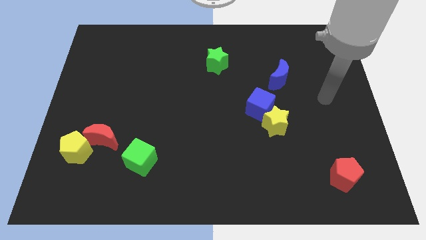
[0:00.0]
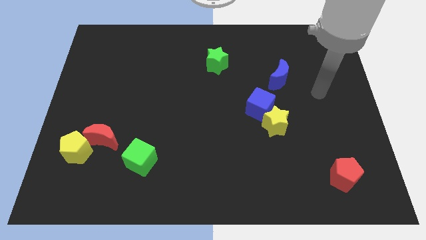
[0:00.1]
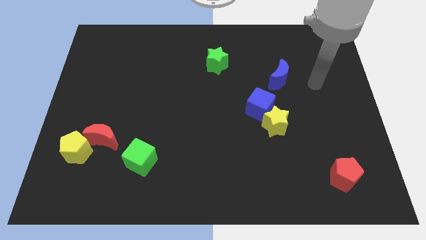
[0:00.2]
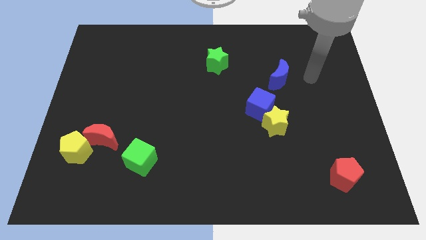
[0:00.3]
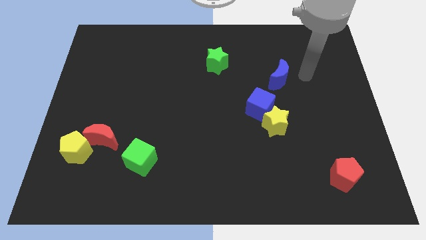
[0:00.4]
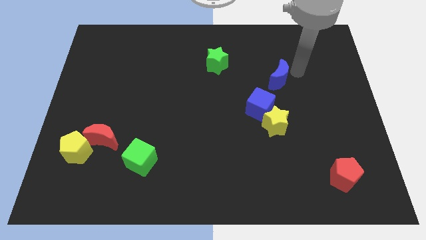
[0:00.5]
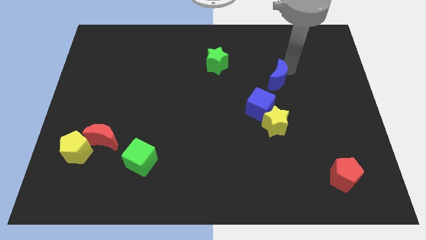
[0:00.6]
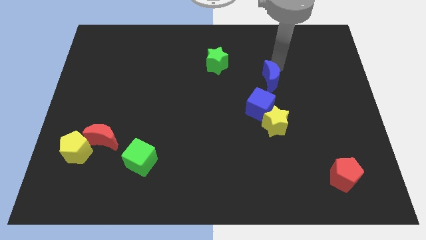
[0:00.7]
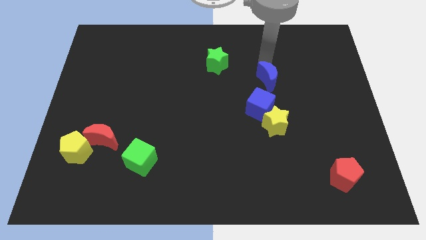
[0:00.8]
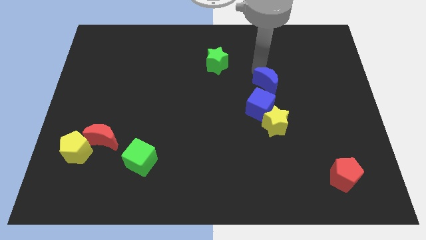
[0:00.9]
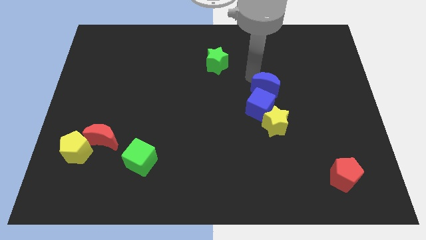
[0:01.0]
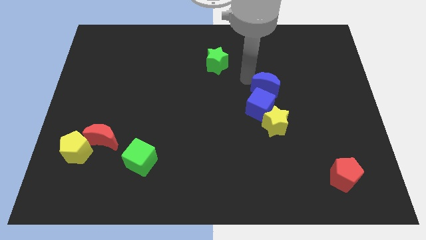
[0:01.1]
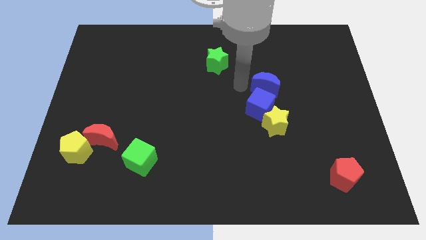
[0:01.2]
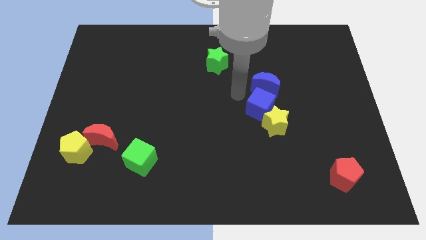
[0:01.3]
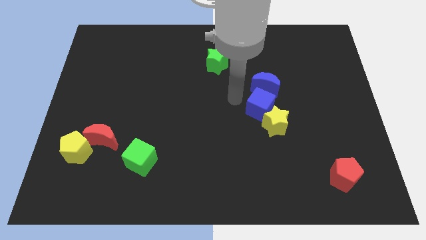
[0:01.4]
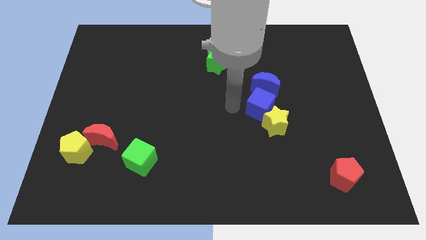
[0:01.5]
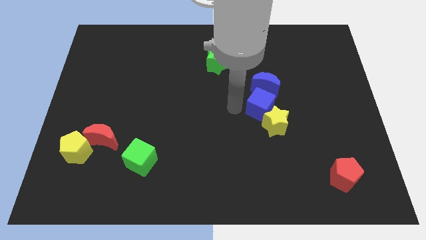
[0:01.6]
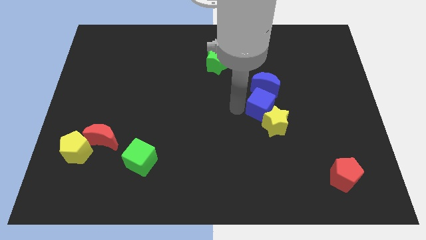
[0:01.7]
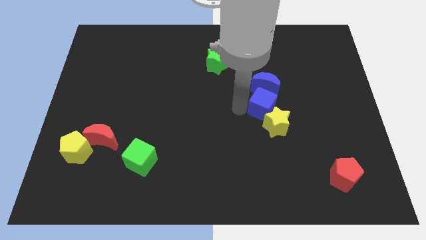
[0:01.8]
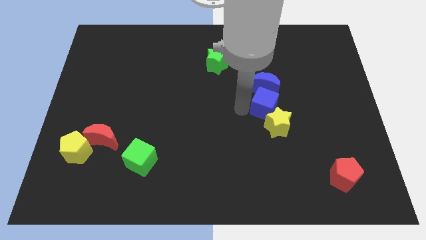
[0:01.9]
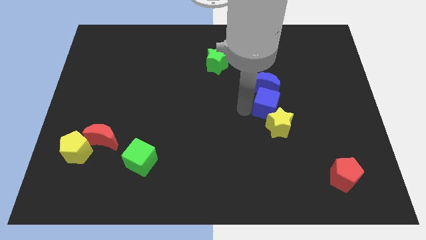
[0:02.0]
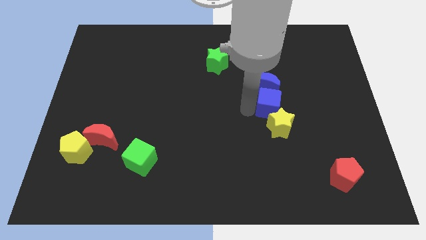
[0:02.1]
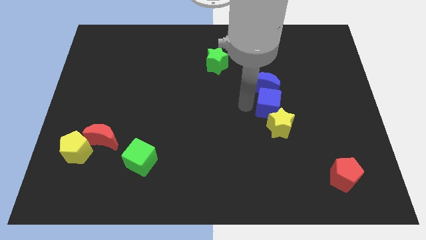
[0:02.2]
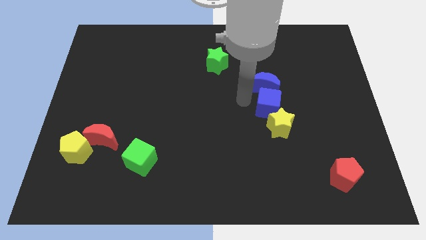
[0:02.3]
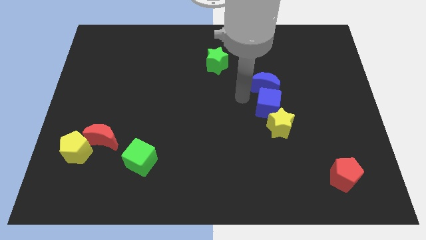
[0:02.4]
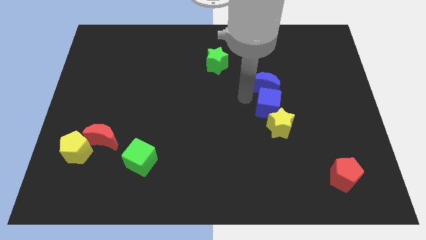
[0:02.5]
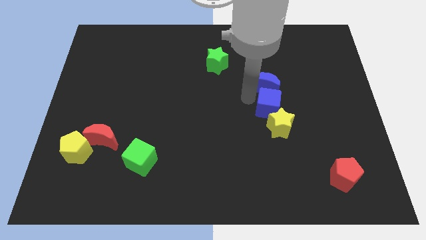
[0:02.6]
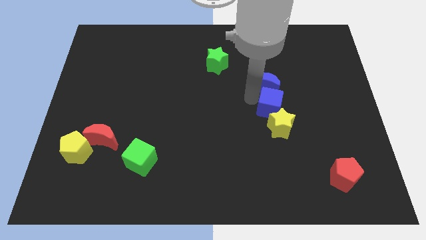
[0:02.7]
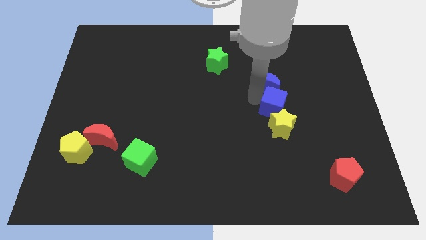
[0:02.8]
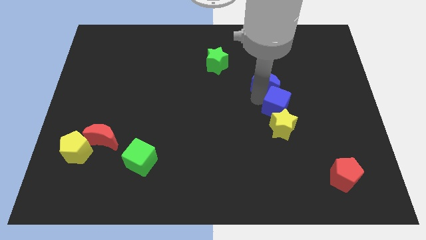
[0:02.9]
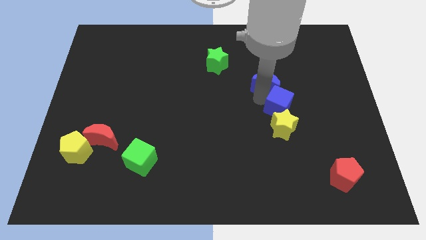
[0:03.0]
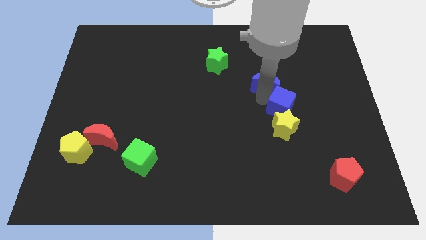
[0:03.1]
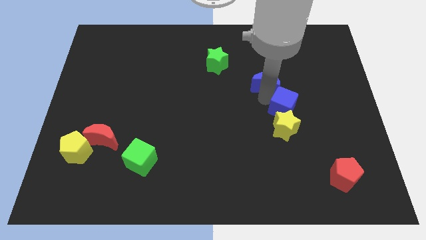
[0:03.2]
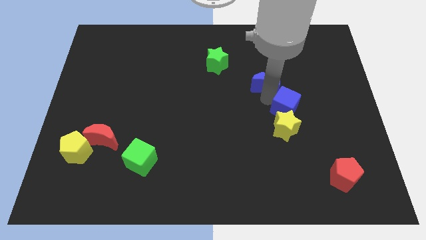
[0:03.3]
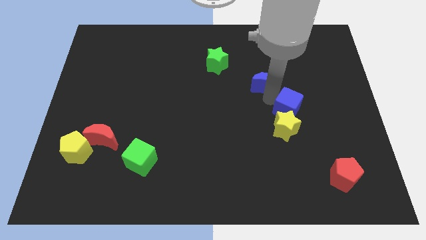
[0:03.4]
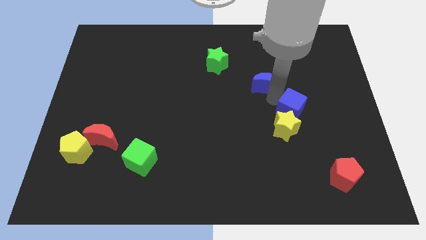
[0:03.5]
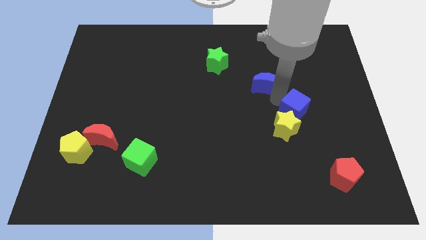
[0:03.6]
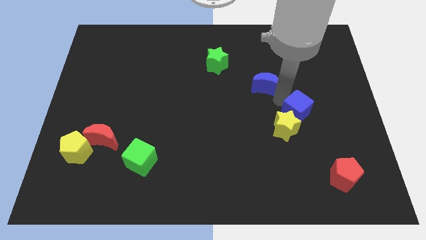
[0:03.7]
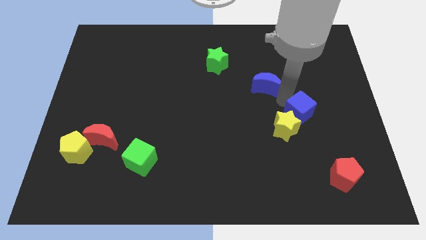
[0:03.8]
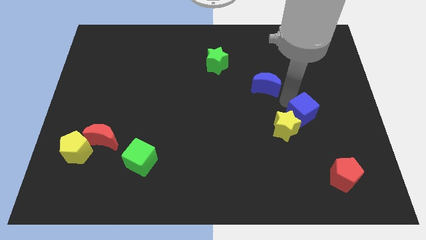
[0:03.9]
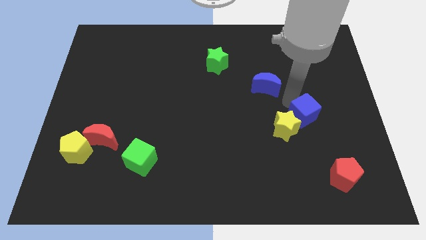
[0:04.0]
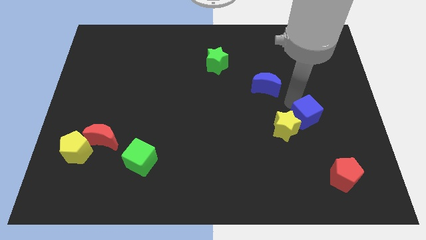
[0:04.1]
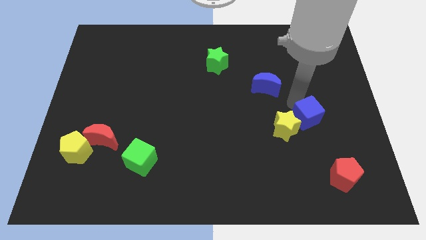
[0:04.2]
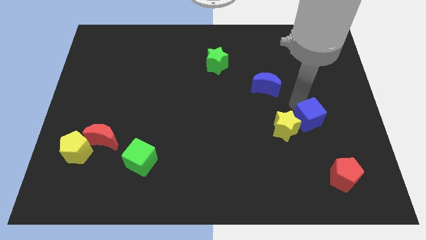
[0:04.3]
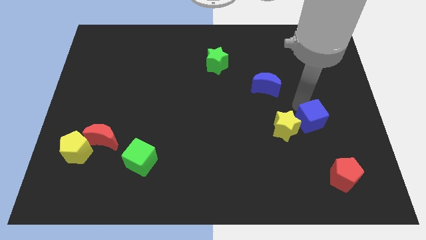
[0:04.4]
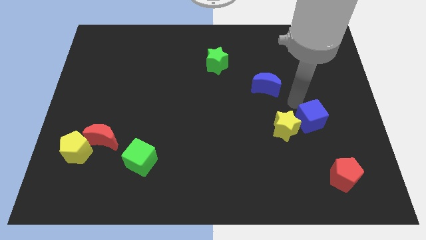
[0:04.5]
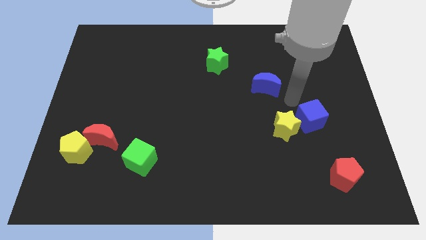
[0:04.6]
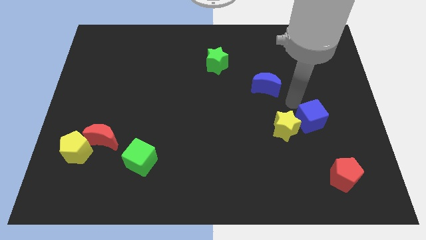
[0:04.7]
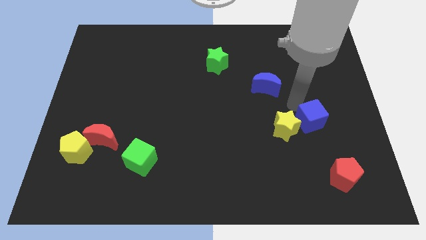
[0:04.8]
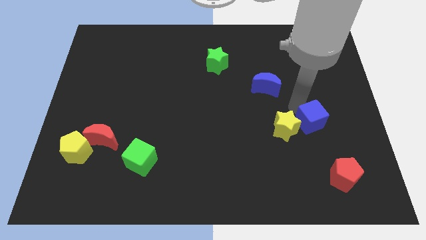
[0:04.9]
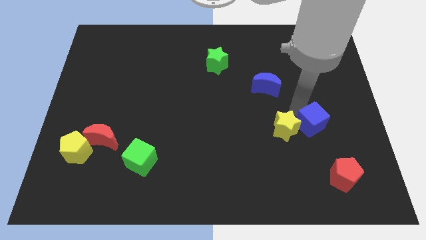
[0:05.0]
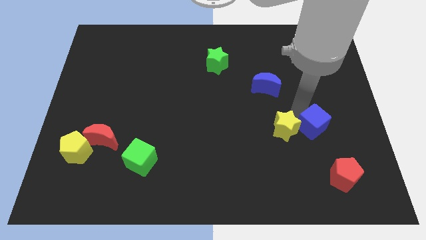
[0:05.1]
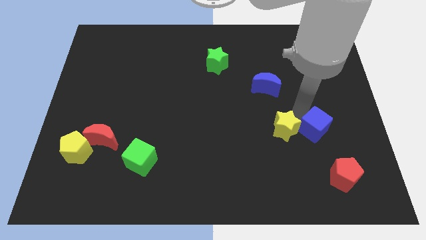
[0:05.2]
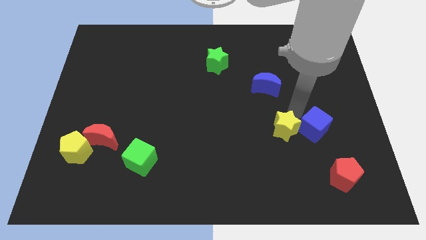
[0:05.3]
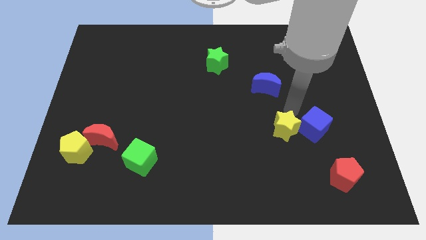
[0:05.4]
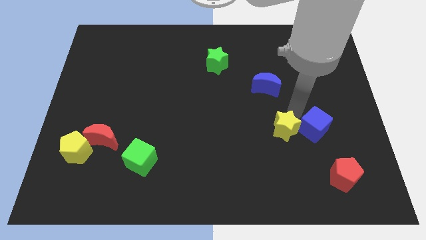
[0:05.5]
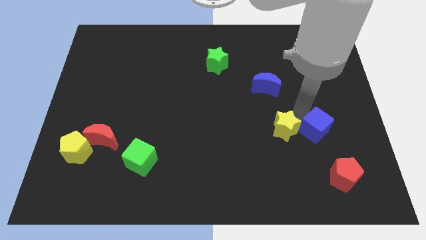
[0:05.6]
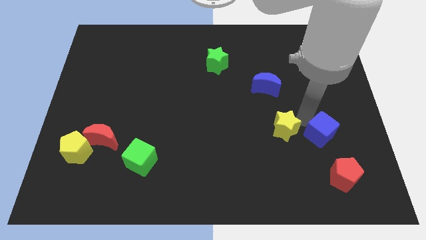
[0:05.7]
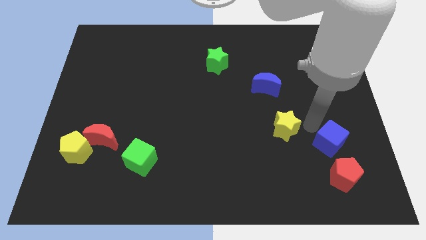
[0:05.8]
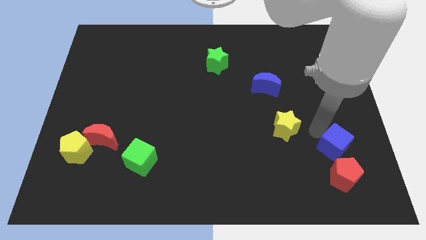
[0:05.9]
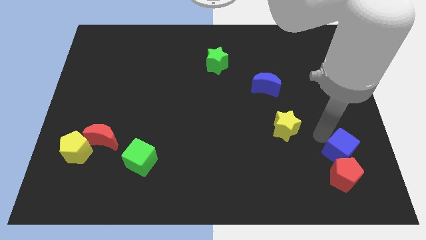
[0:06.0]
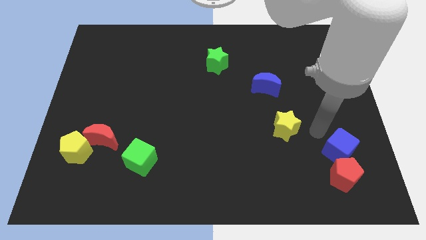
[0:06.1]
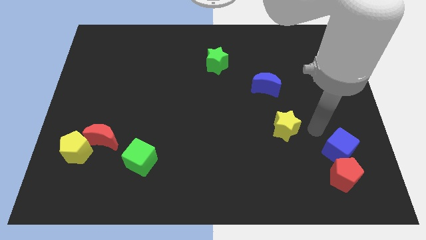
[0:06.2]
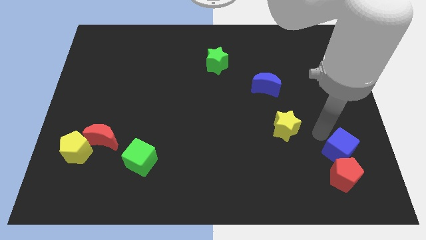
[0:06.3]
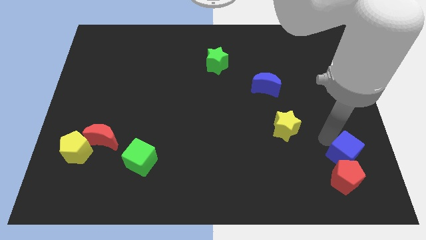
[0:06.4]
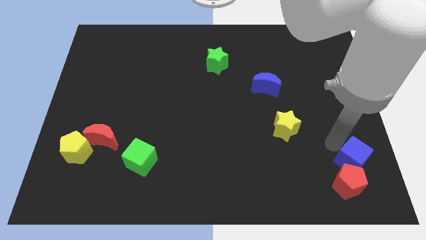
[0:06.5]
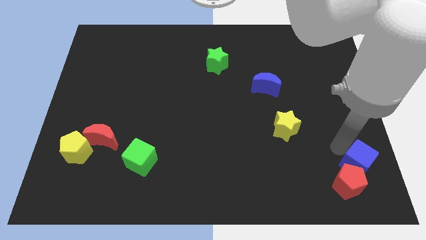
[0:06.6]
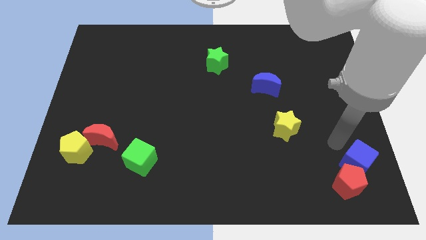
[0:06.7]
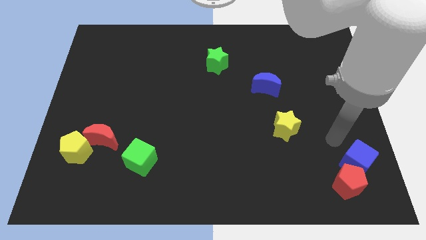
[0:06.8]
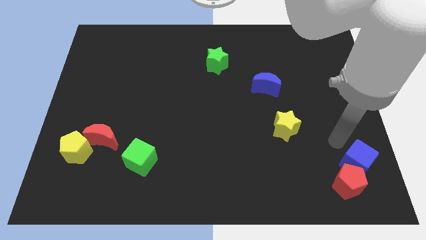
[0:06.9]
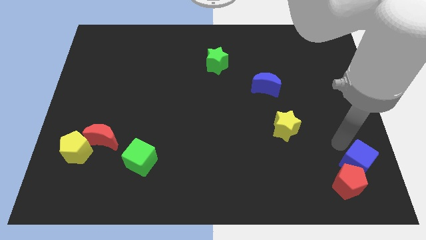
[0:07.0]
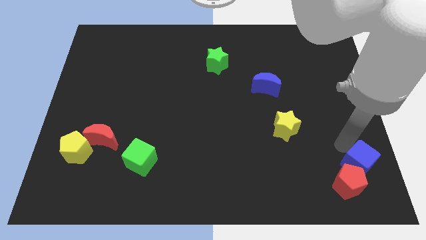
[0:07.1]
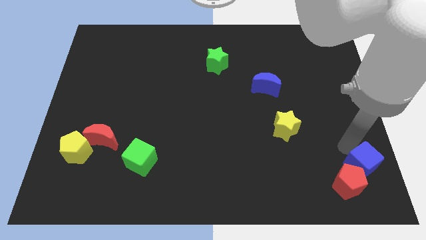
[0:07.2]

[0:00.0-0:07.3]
slide the blue cube to the bottom right corner
